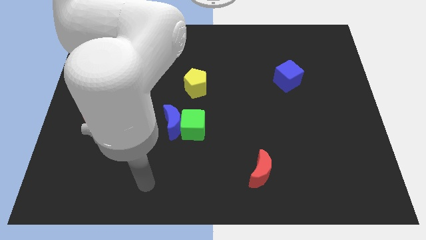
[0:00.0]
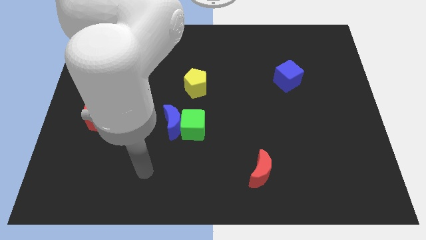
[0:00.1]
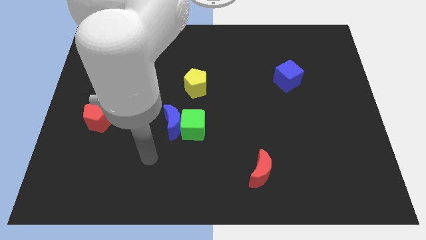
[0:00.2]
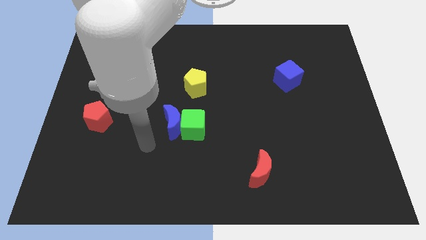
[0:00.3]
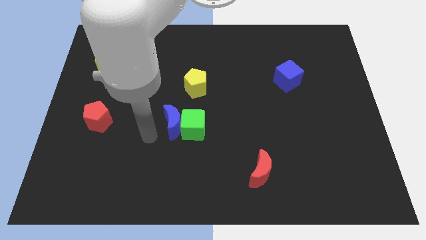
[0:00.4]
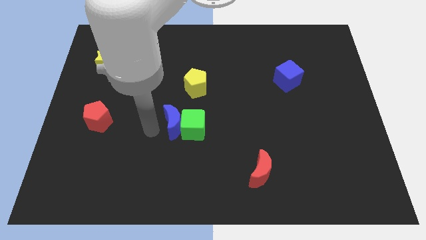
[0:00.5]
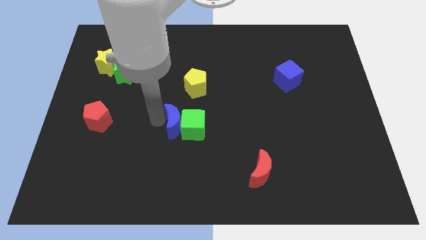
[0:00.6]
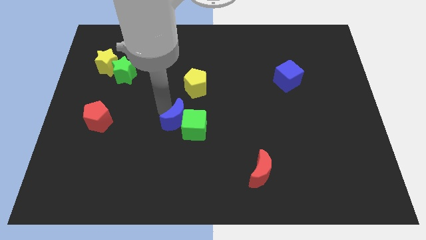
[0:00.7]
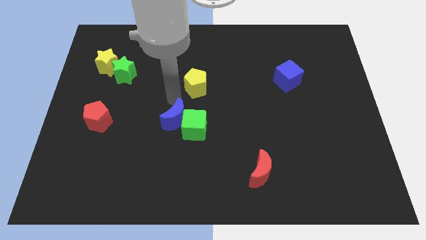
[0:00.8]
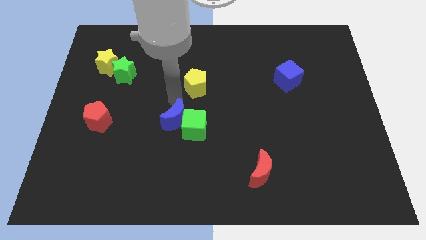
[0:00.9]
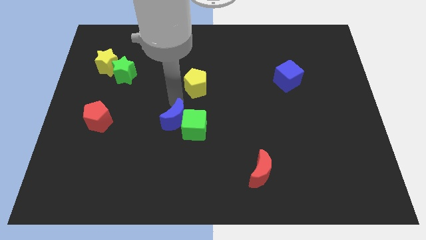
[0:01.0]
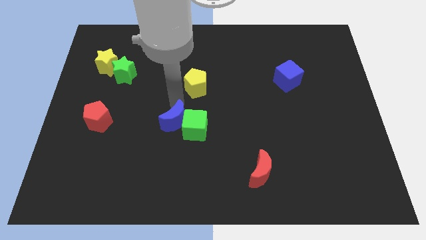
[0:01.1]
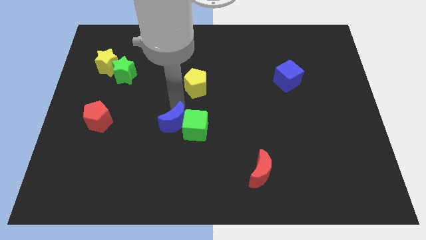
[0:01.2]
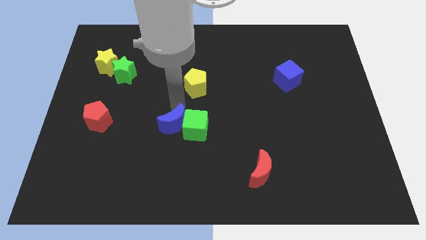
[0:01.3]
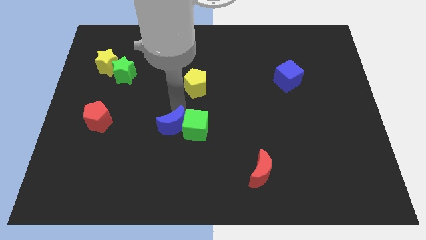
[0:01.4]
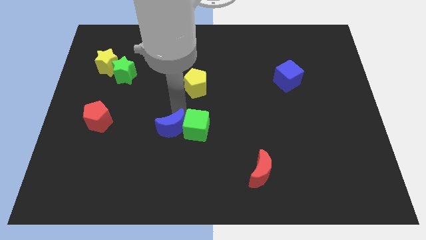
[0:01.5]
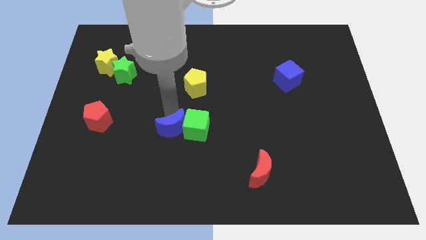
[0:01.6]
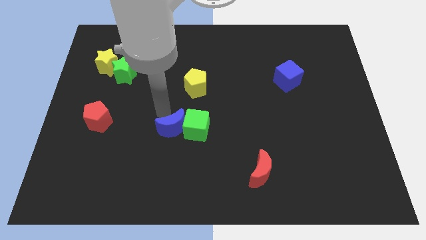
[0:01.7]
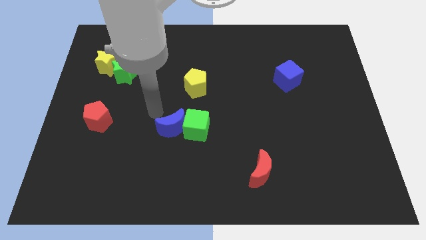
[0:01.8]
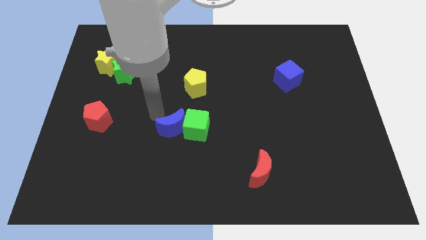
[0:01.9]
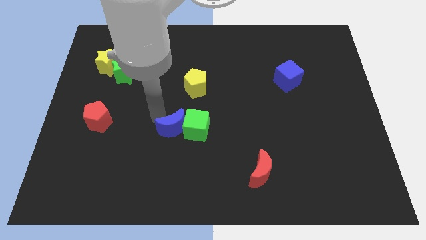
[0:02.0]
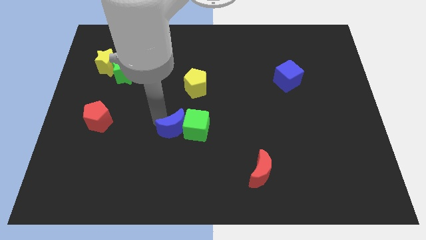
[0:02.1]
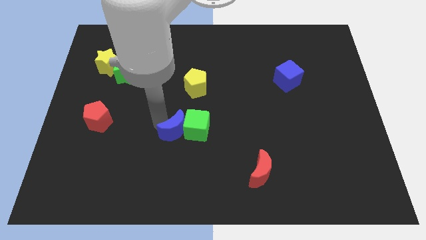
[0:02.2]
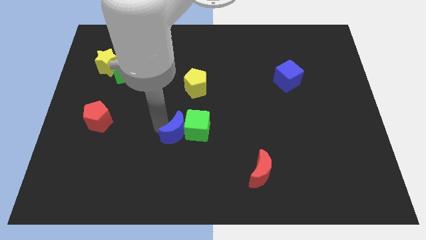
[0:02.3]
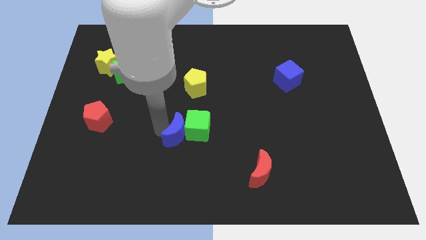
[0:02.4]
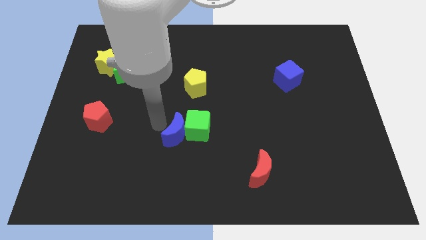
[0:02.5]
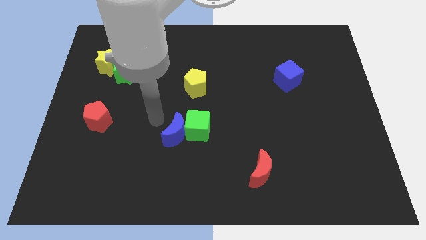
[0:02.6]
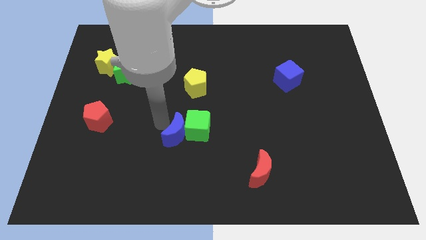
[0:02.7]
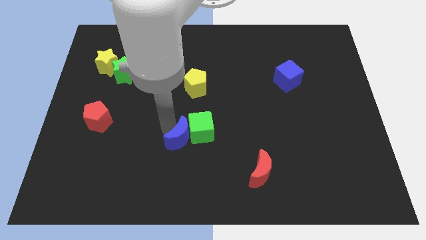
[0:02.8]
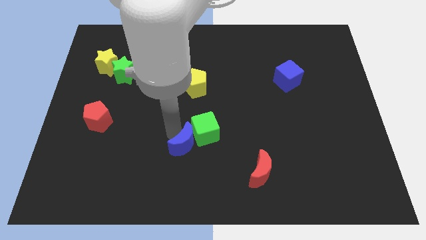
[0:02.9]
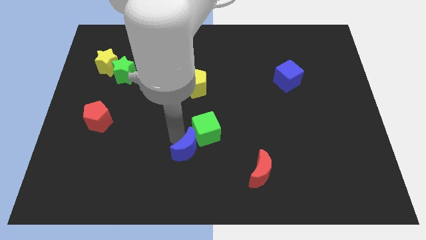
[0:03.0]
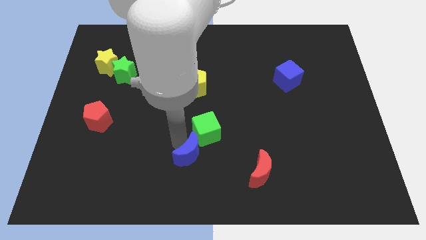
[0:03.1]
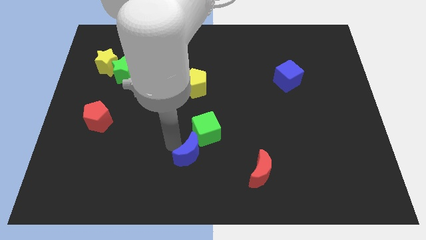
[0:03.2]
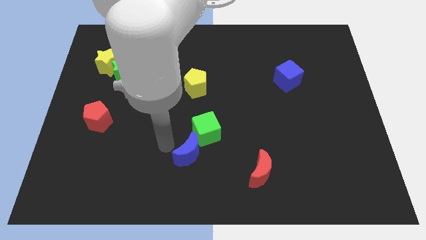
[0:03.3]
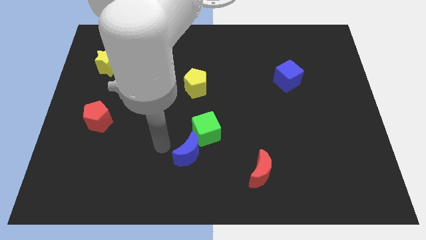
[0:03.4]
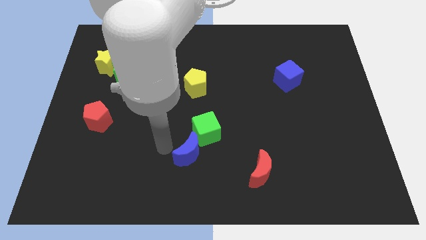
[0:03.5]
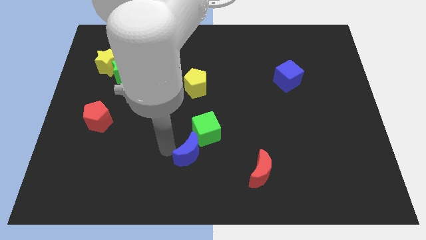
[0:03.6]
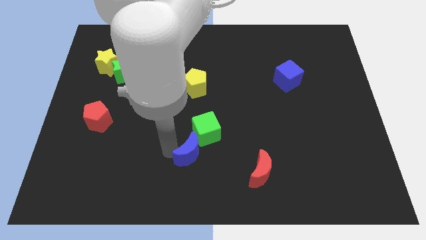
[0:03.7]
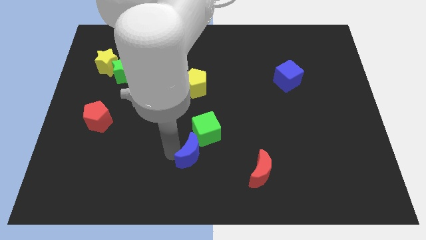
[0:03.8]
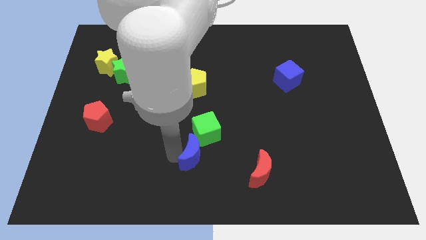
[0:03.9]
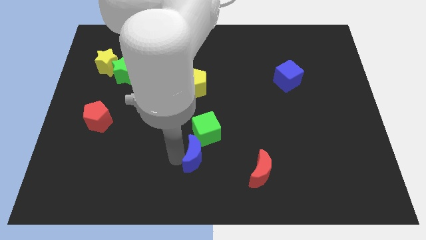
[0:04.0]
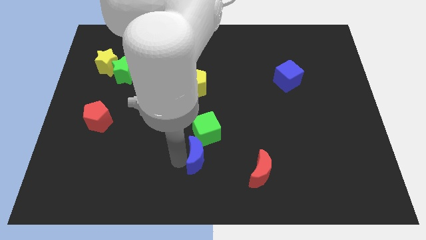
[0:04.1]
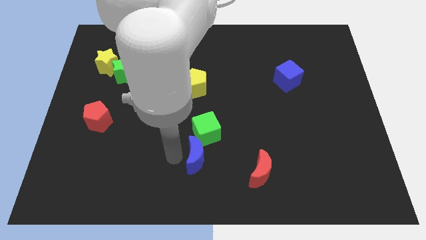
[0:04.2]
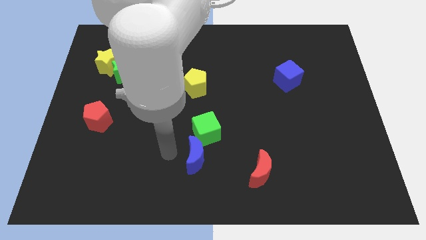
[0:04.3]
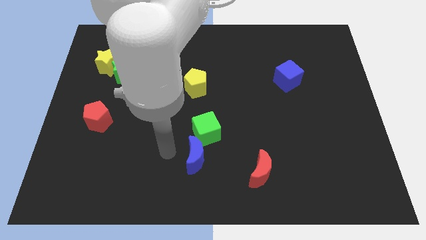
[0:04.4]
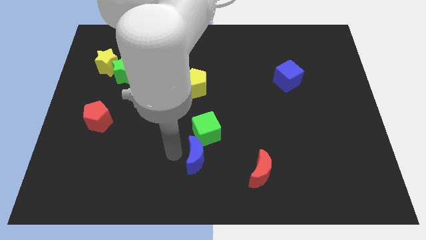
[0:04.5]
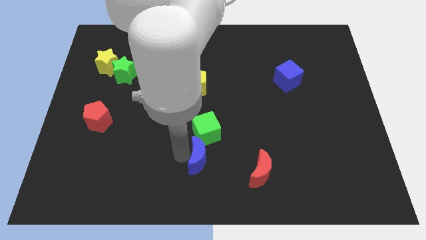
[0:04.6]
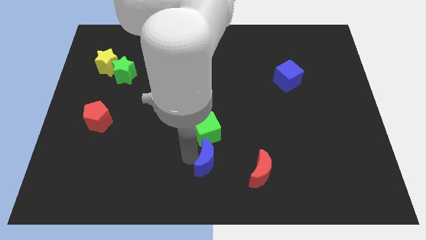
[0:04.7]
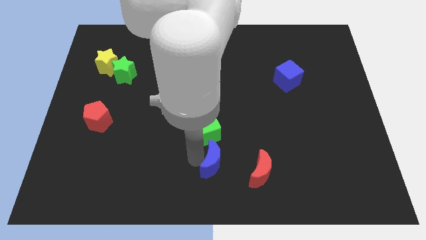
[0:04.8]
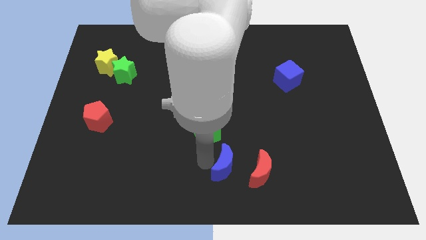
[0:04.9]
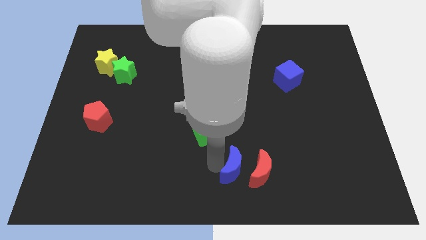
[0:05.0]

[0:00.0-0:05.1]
move the blue moon towards the red moon

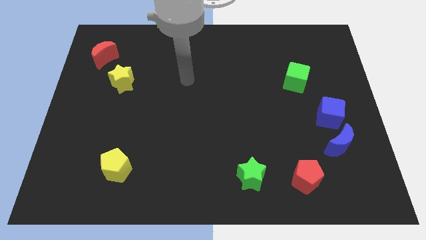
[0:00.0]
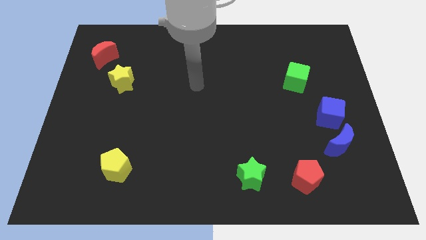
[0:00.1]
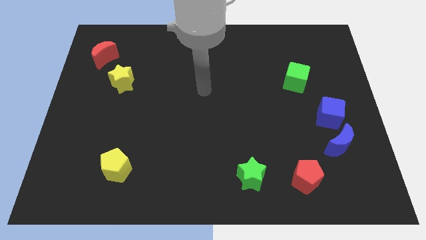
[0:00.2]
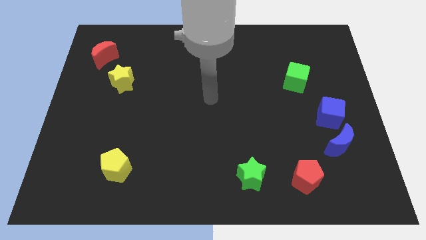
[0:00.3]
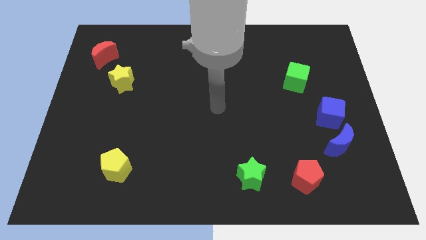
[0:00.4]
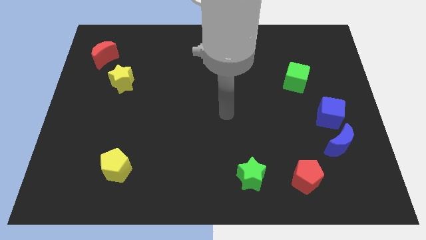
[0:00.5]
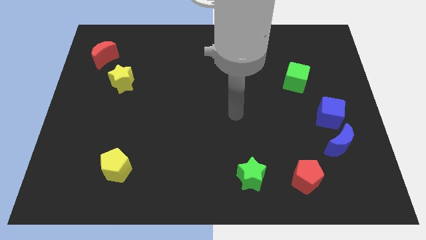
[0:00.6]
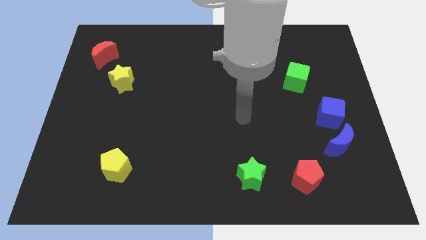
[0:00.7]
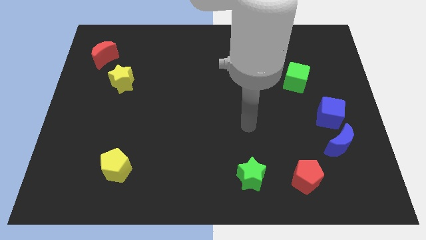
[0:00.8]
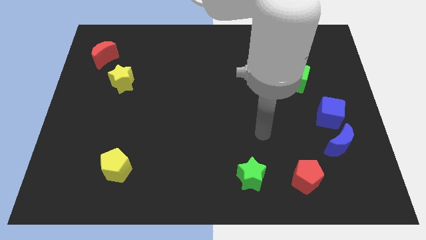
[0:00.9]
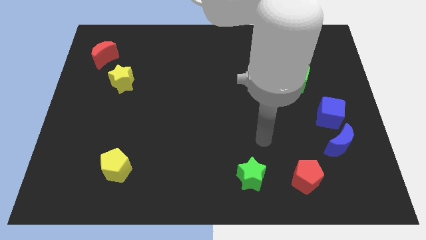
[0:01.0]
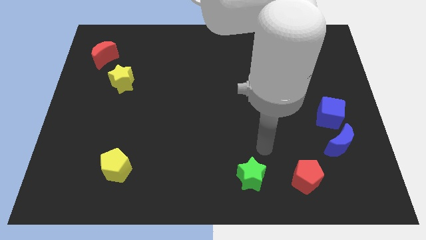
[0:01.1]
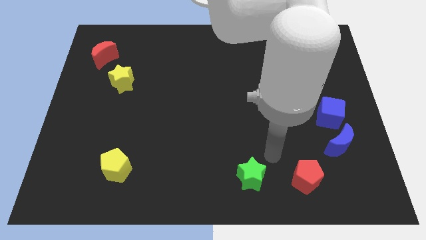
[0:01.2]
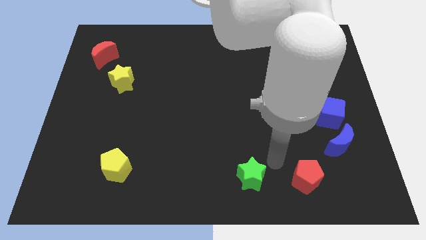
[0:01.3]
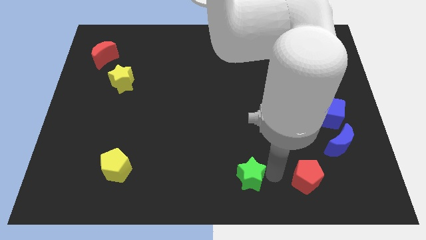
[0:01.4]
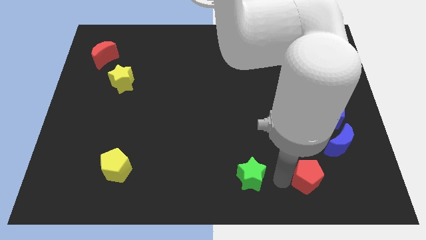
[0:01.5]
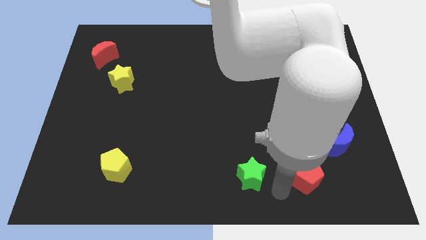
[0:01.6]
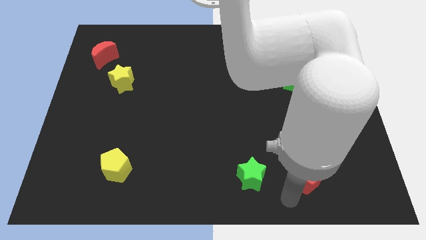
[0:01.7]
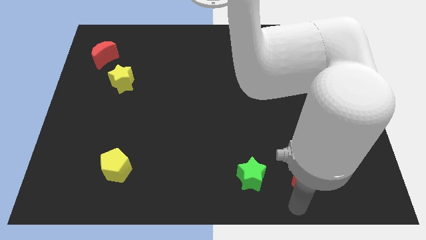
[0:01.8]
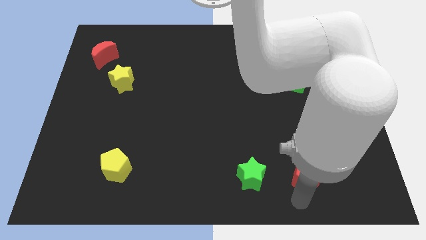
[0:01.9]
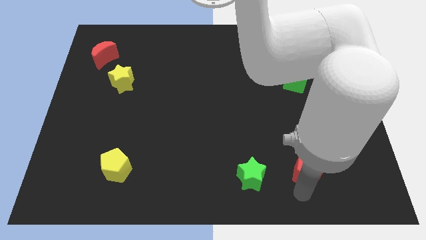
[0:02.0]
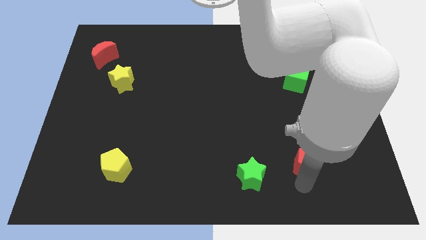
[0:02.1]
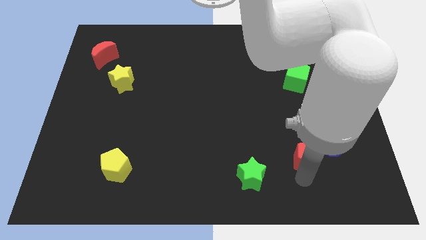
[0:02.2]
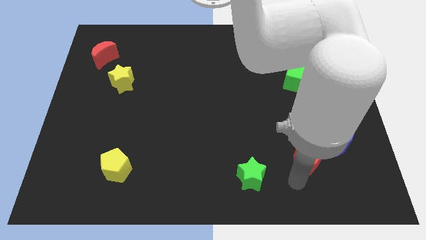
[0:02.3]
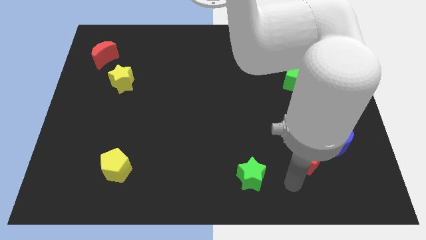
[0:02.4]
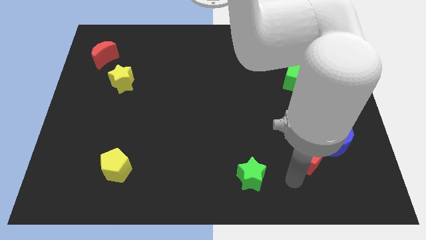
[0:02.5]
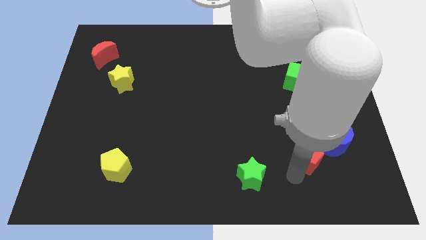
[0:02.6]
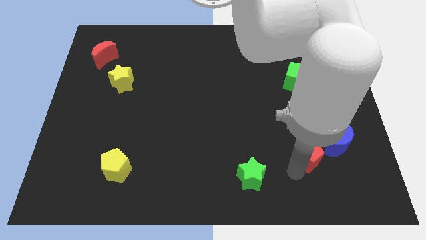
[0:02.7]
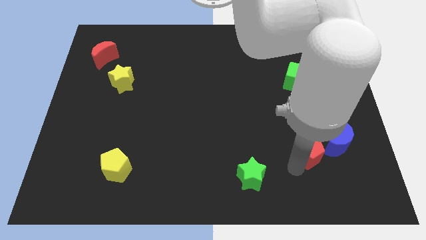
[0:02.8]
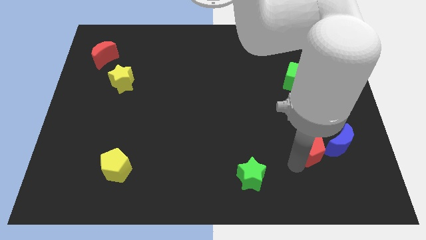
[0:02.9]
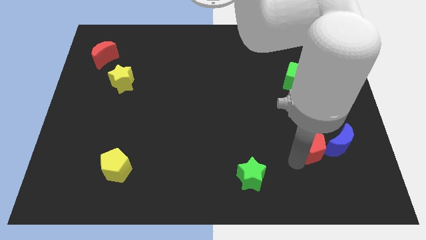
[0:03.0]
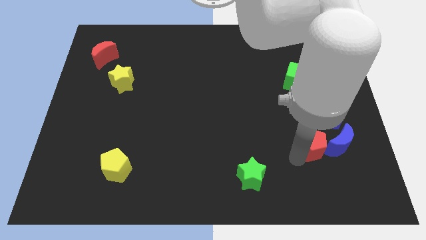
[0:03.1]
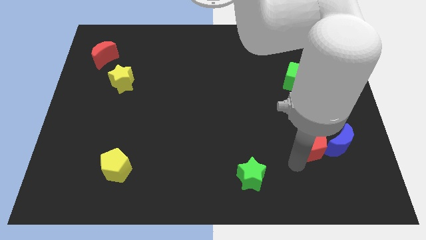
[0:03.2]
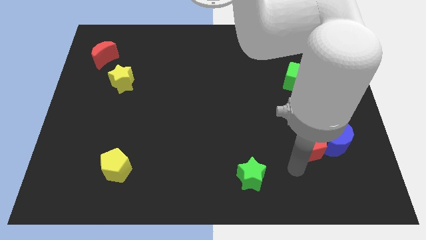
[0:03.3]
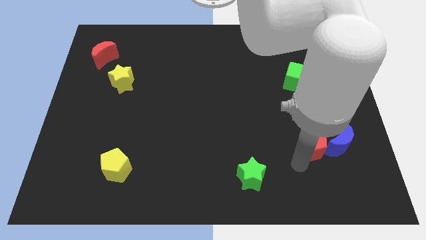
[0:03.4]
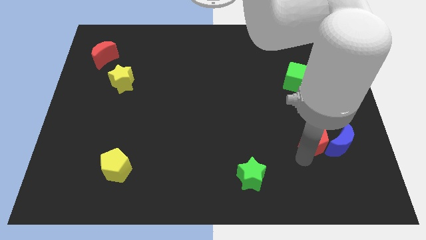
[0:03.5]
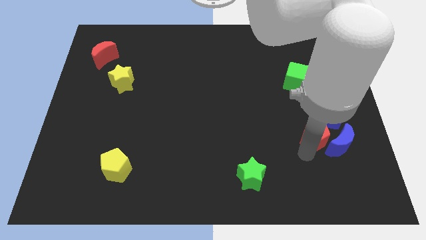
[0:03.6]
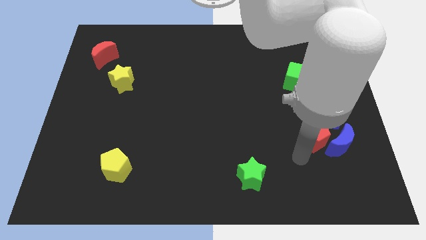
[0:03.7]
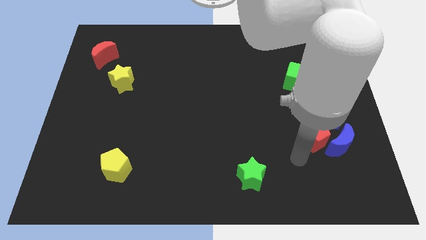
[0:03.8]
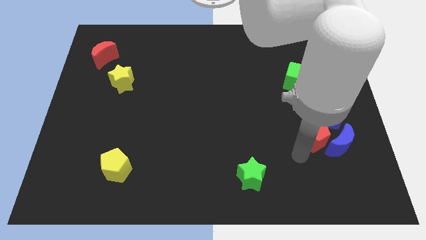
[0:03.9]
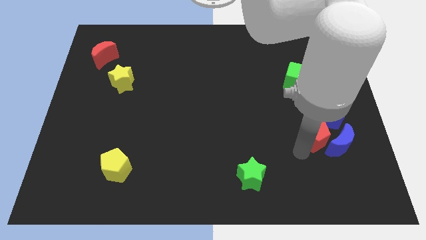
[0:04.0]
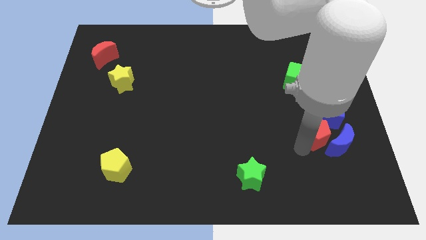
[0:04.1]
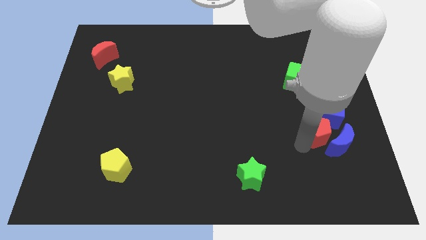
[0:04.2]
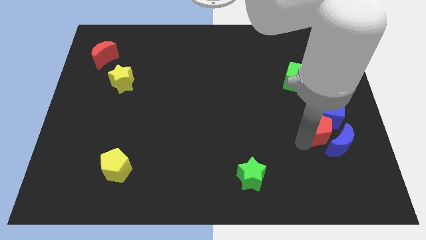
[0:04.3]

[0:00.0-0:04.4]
put the red pentagon close to the blue cube
